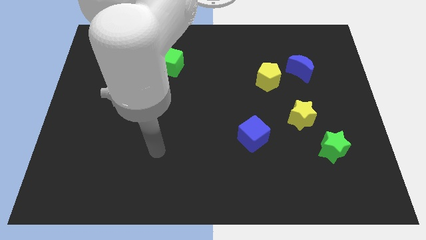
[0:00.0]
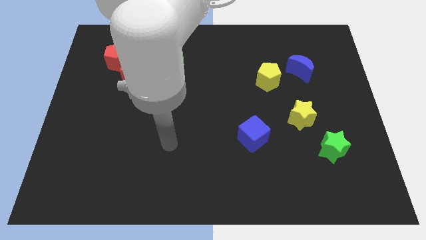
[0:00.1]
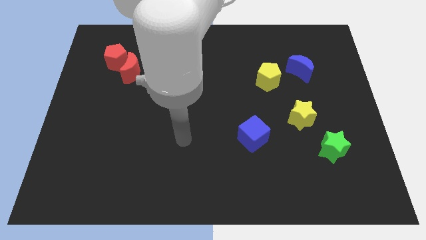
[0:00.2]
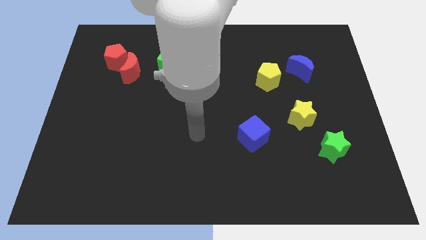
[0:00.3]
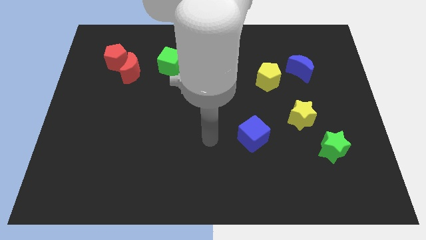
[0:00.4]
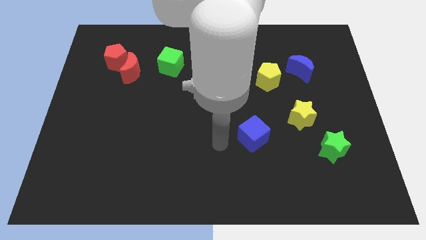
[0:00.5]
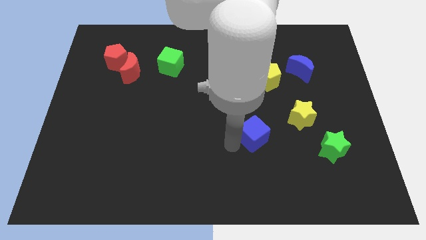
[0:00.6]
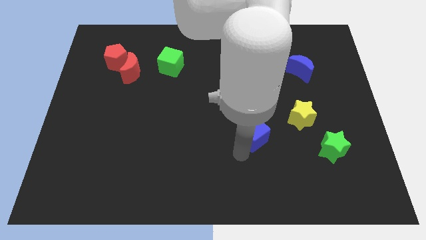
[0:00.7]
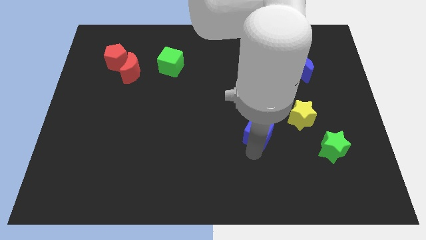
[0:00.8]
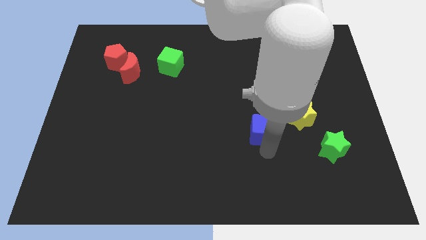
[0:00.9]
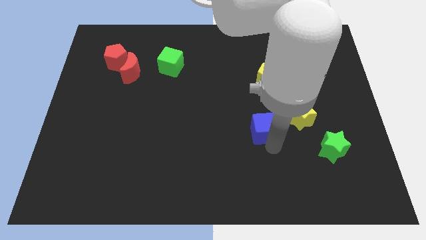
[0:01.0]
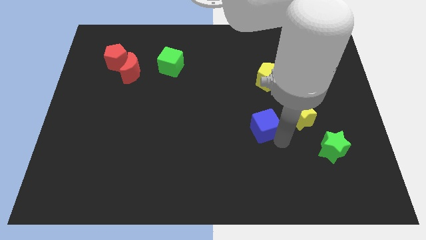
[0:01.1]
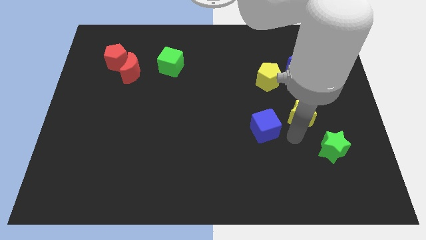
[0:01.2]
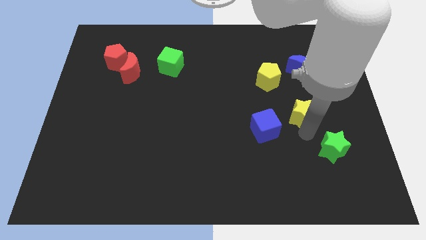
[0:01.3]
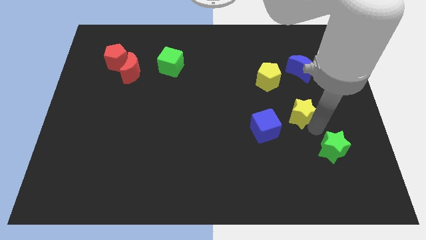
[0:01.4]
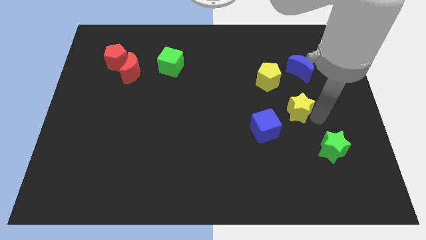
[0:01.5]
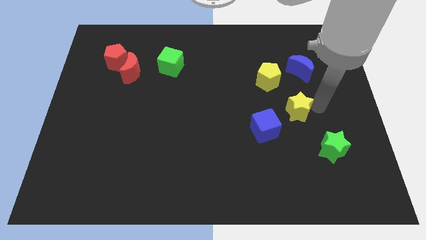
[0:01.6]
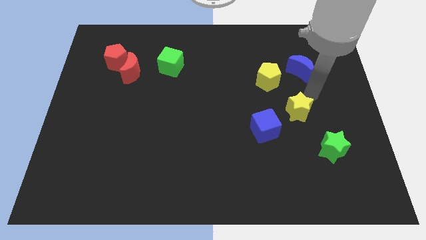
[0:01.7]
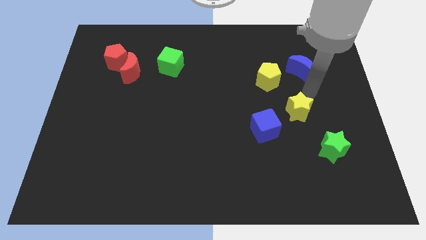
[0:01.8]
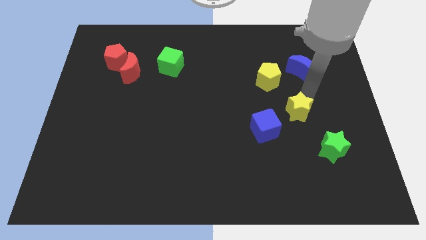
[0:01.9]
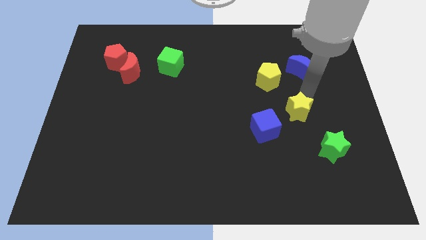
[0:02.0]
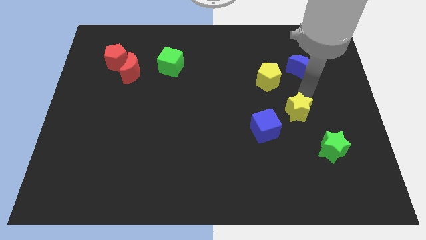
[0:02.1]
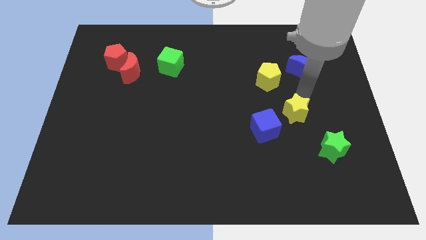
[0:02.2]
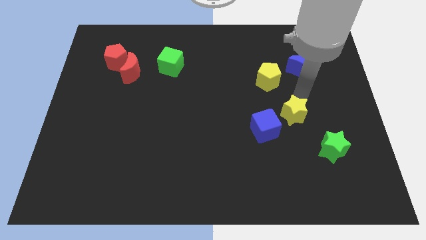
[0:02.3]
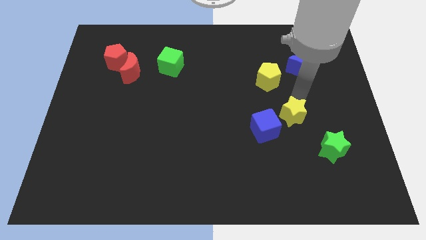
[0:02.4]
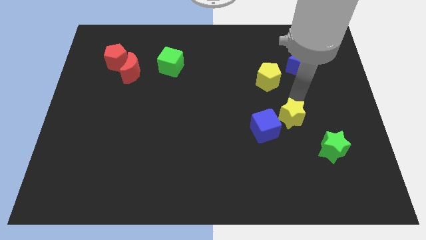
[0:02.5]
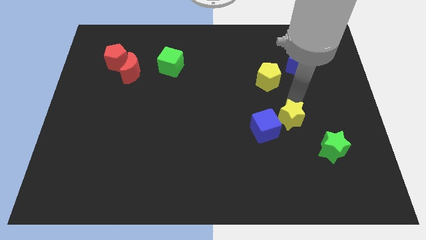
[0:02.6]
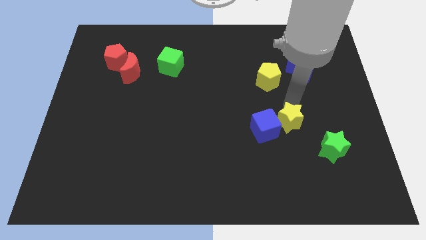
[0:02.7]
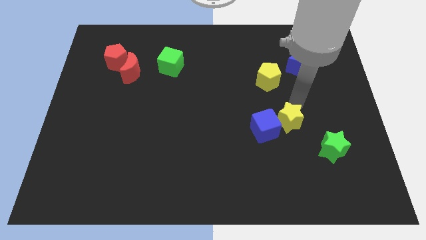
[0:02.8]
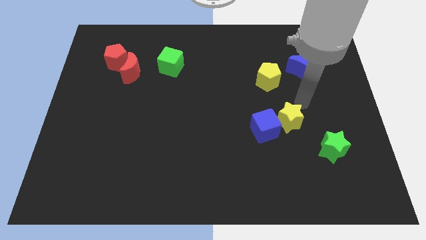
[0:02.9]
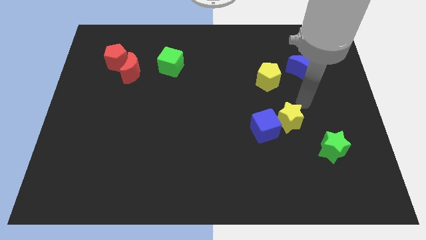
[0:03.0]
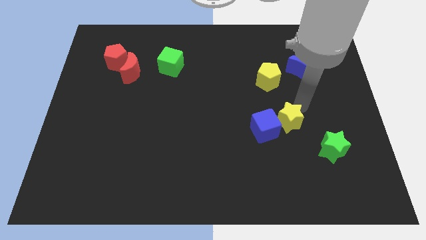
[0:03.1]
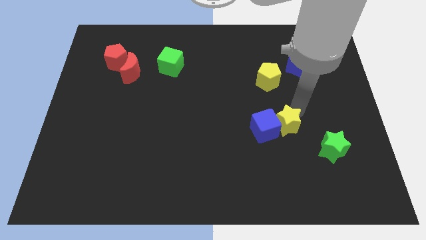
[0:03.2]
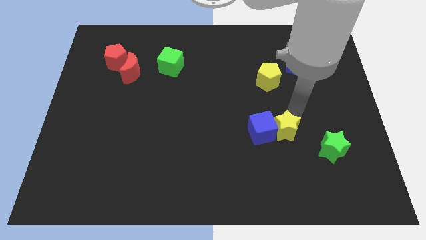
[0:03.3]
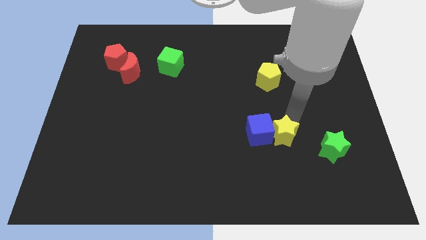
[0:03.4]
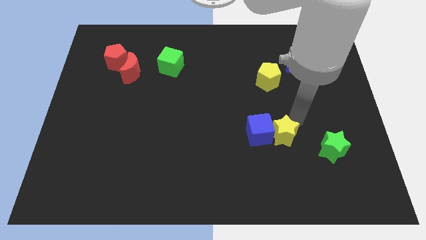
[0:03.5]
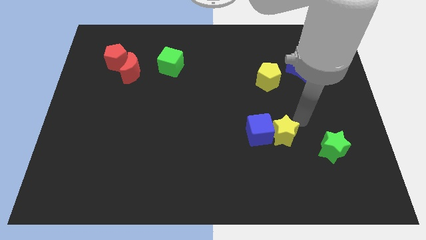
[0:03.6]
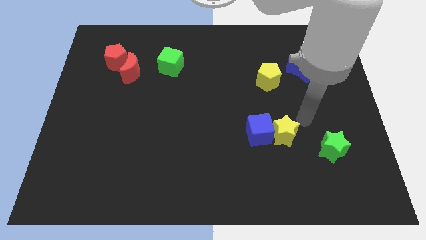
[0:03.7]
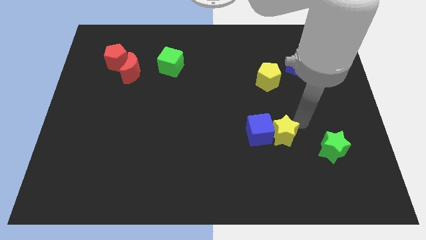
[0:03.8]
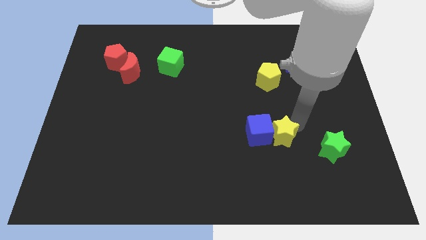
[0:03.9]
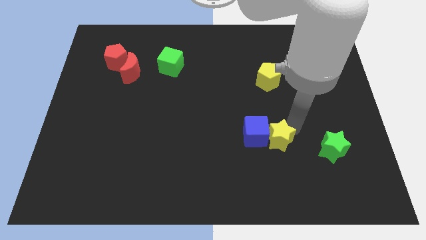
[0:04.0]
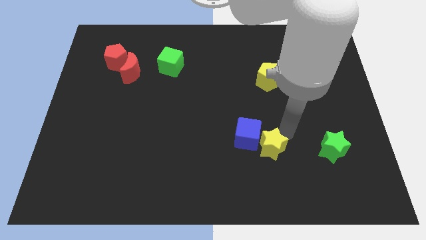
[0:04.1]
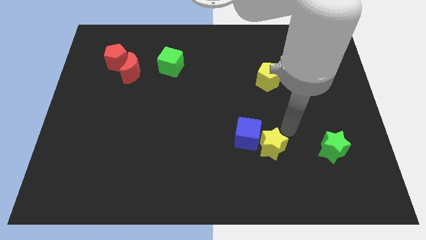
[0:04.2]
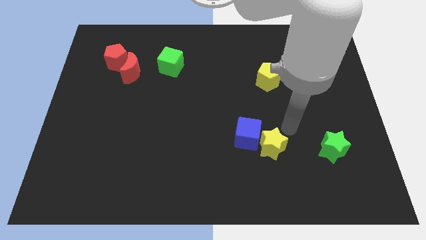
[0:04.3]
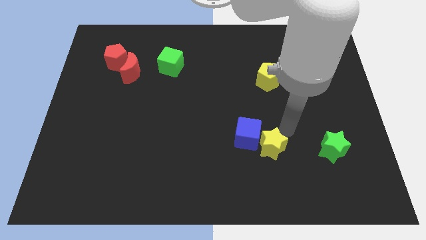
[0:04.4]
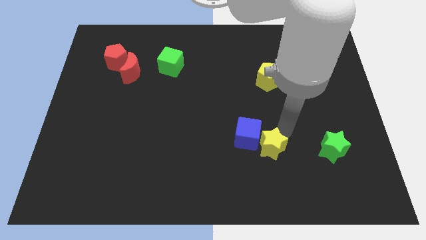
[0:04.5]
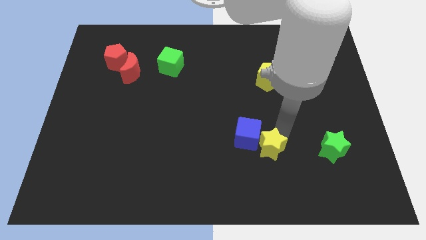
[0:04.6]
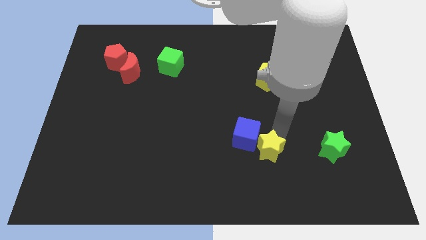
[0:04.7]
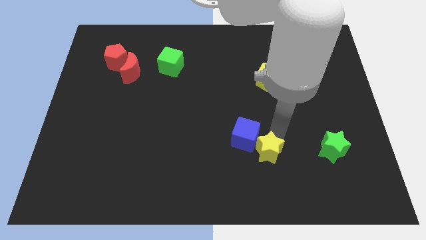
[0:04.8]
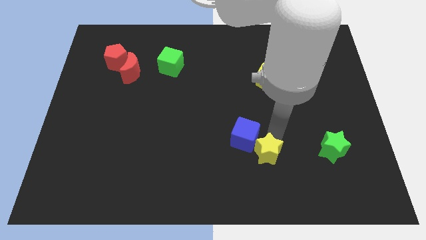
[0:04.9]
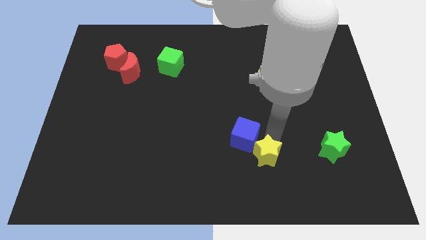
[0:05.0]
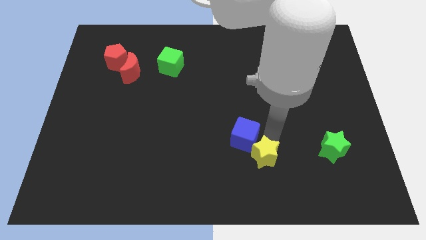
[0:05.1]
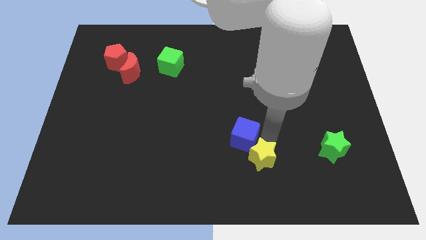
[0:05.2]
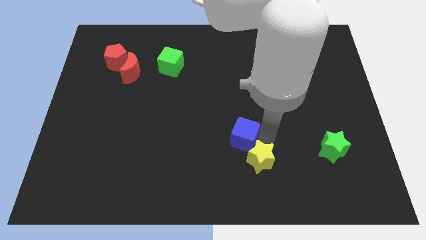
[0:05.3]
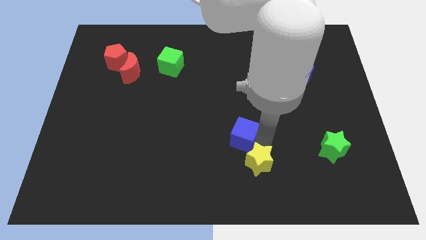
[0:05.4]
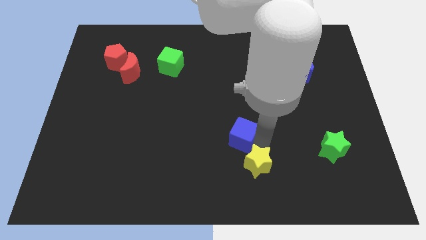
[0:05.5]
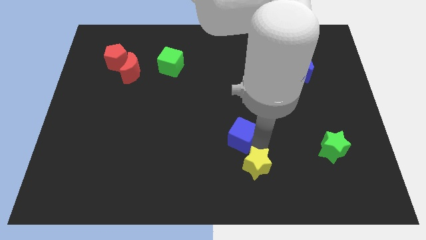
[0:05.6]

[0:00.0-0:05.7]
move the yellow star to the bottom
